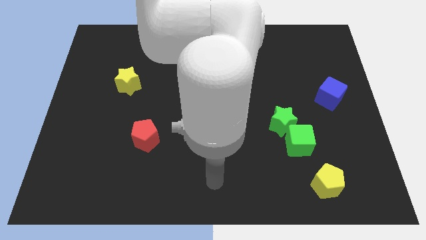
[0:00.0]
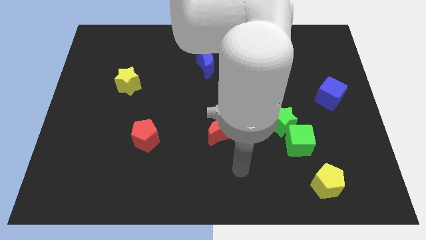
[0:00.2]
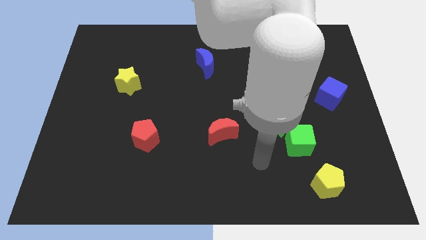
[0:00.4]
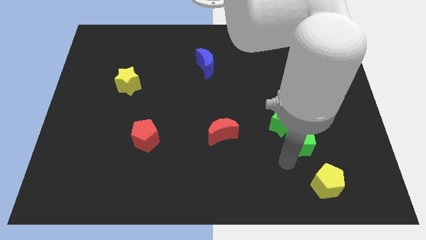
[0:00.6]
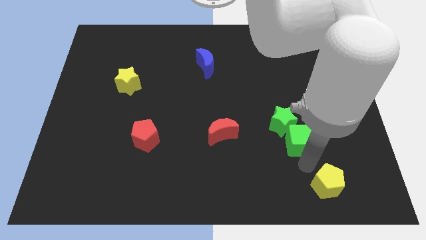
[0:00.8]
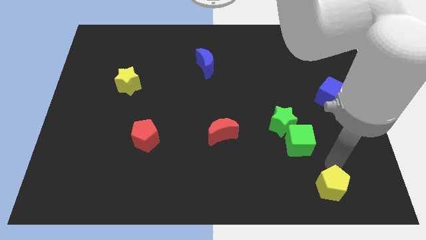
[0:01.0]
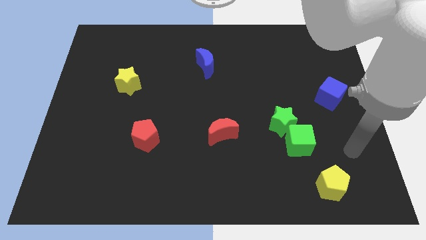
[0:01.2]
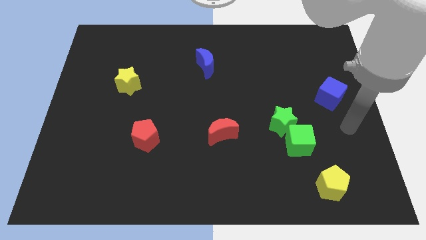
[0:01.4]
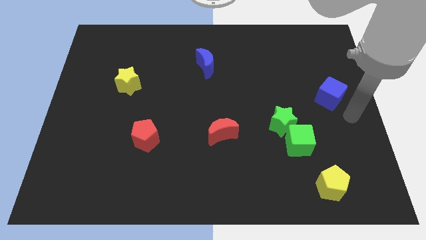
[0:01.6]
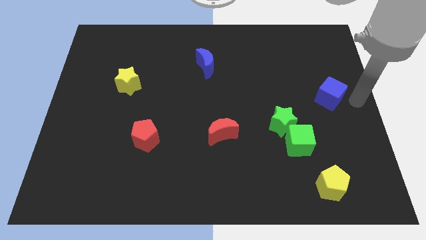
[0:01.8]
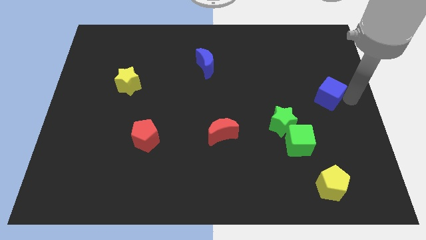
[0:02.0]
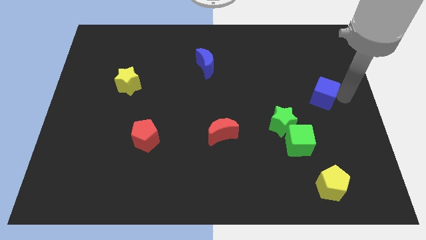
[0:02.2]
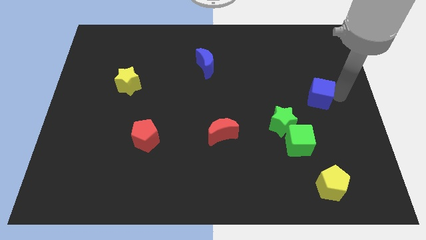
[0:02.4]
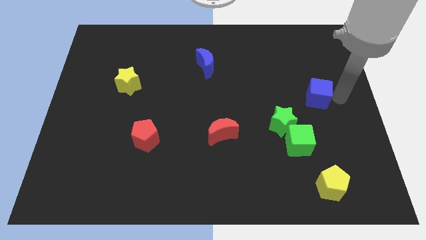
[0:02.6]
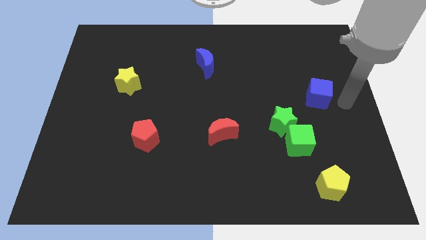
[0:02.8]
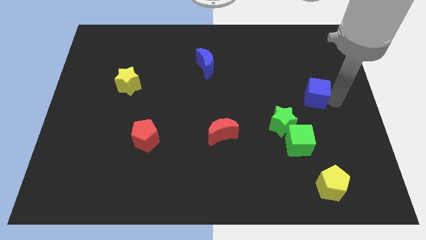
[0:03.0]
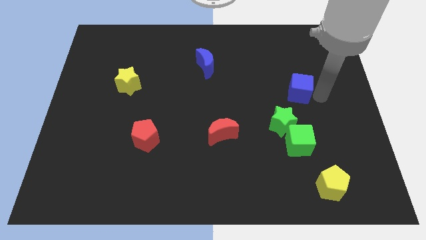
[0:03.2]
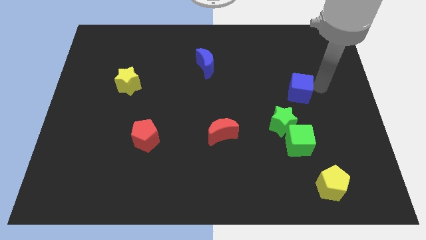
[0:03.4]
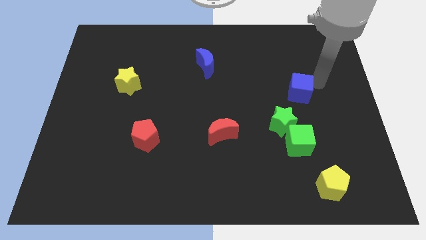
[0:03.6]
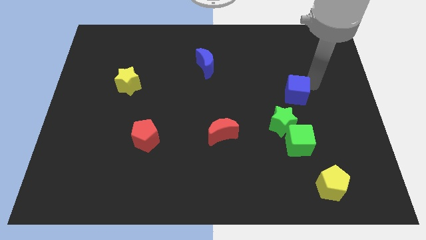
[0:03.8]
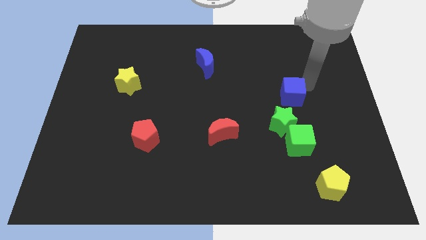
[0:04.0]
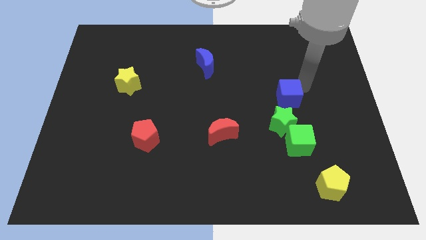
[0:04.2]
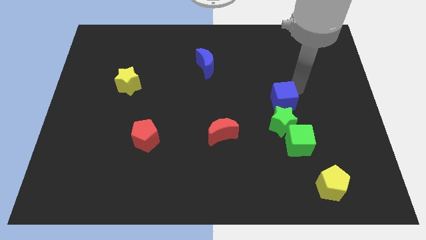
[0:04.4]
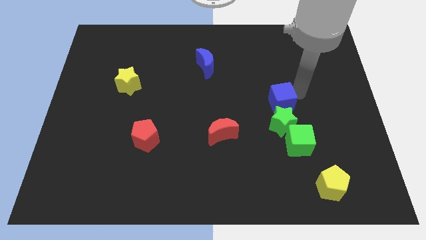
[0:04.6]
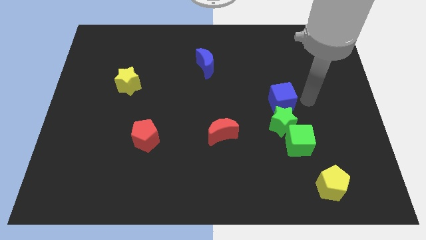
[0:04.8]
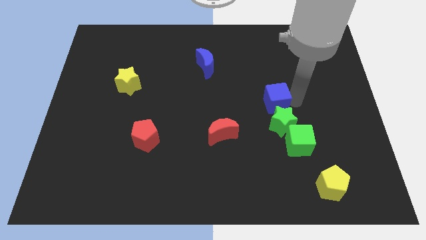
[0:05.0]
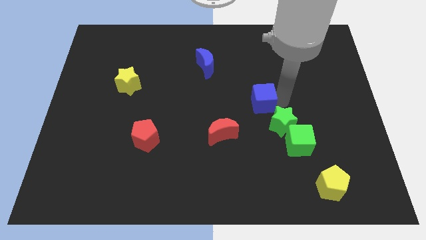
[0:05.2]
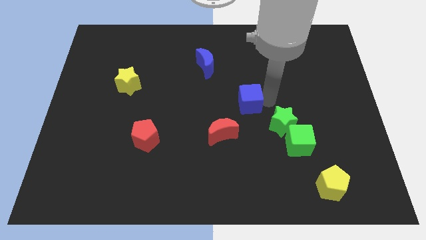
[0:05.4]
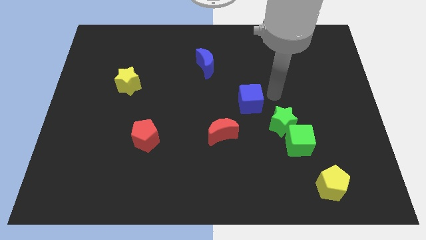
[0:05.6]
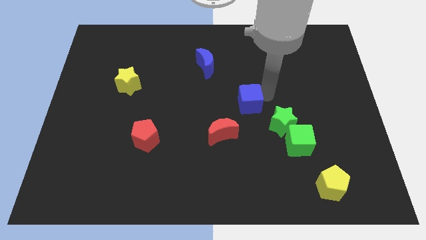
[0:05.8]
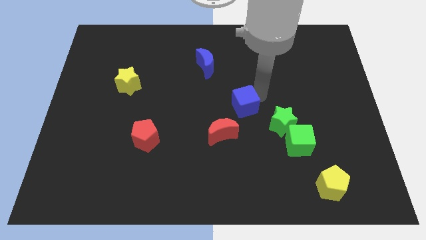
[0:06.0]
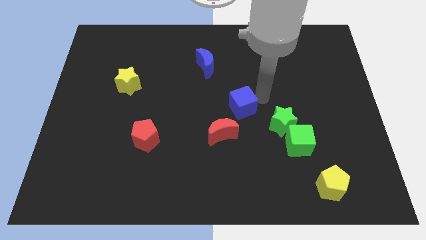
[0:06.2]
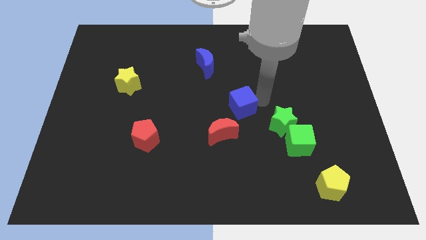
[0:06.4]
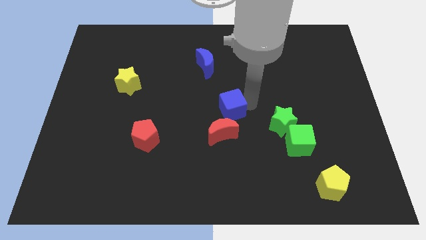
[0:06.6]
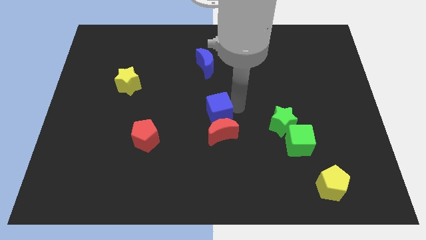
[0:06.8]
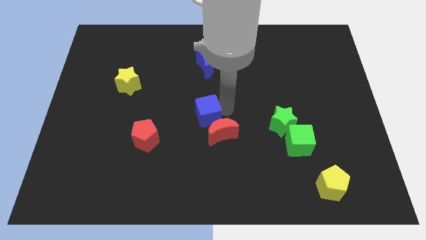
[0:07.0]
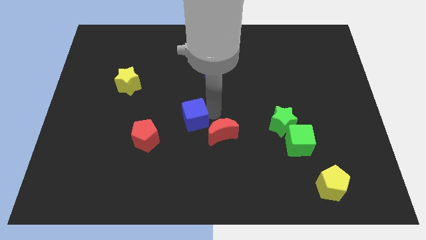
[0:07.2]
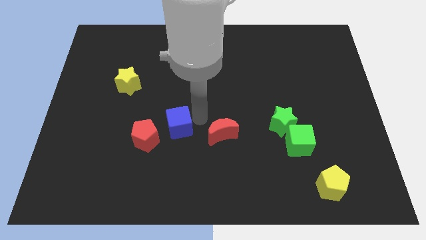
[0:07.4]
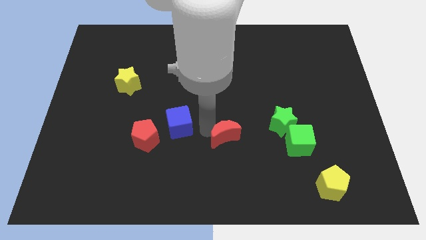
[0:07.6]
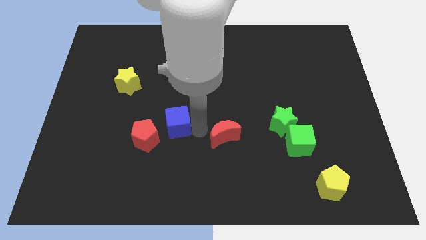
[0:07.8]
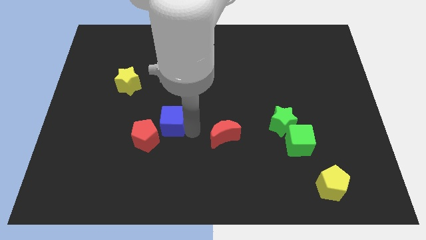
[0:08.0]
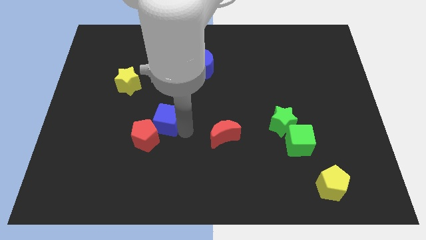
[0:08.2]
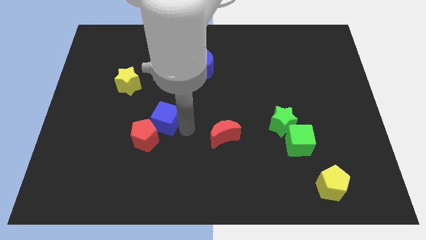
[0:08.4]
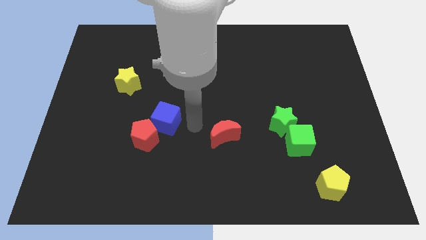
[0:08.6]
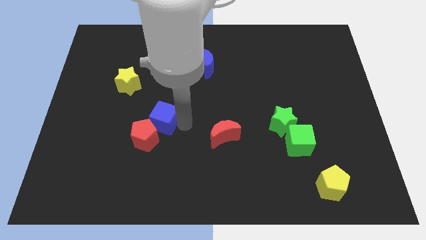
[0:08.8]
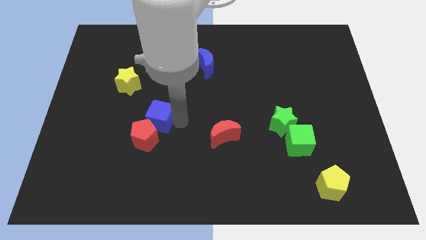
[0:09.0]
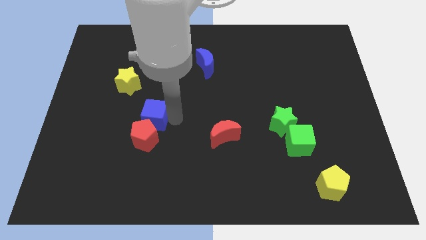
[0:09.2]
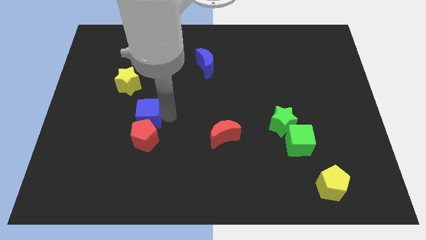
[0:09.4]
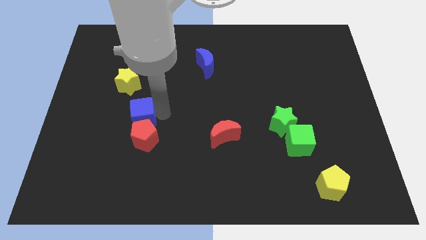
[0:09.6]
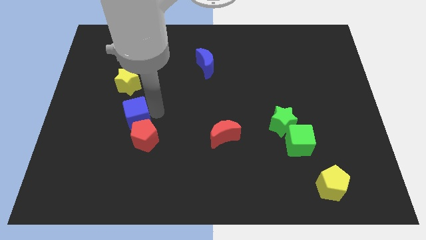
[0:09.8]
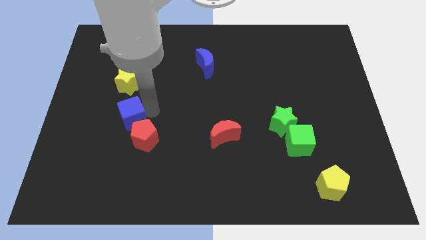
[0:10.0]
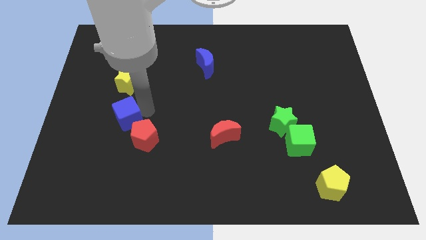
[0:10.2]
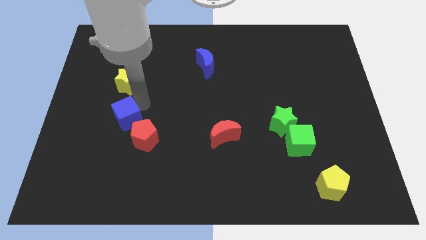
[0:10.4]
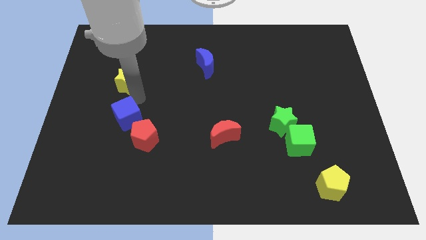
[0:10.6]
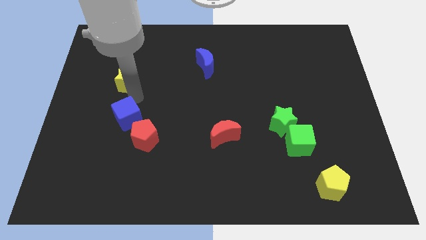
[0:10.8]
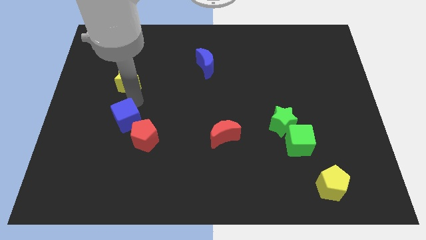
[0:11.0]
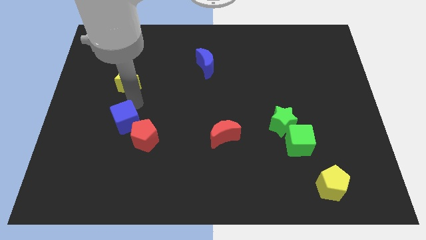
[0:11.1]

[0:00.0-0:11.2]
move the blue cube to the left side of the red pentagon

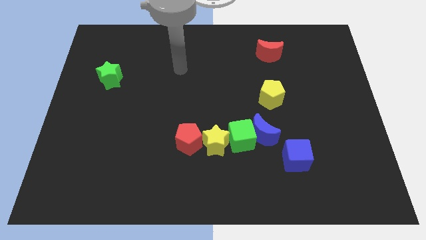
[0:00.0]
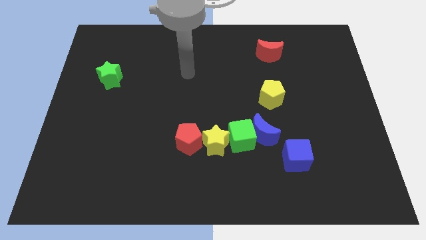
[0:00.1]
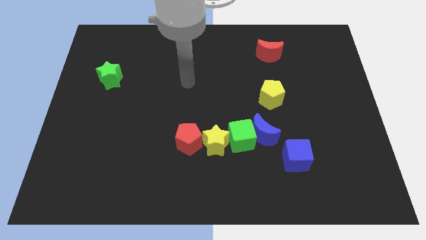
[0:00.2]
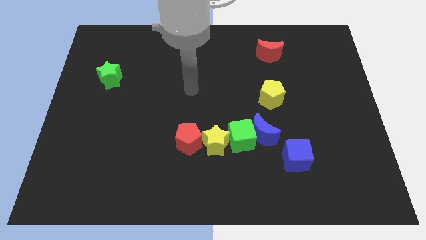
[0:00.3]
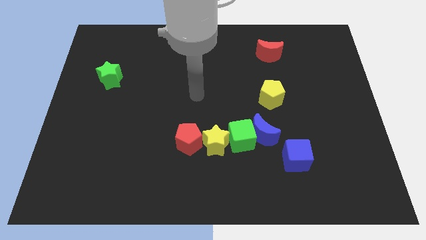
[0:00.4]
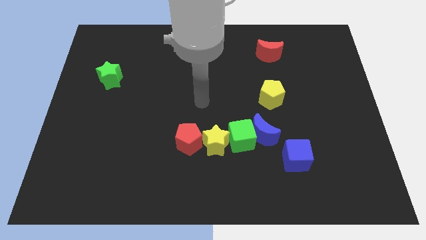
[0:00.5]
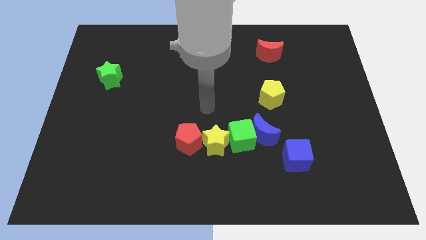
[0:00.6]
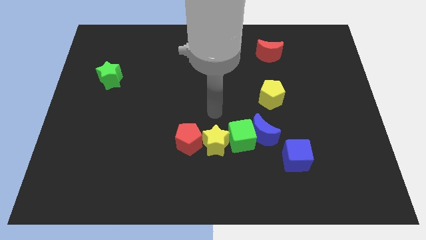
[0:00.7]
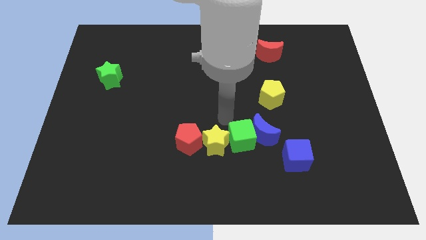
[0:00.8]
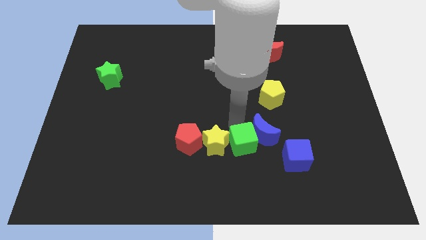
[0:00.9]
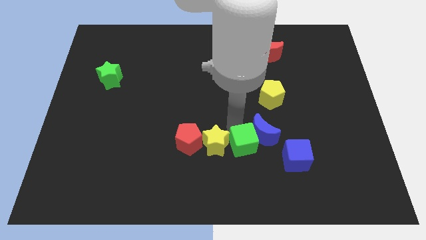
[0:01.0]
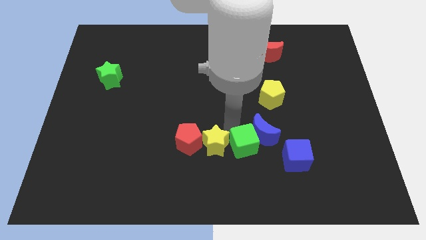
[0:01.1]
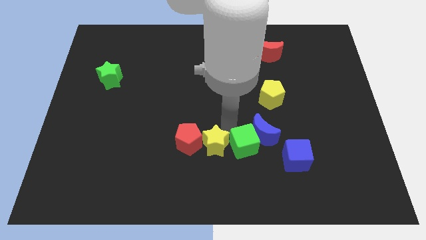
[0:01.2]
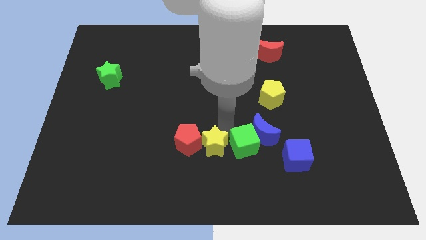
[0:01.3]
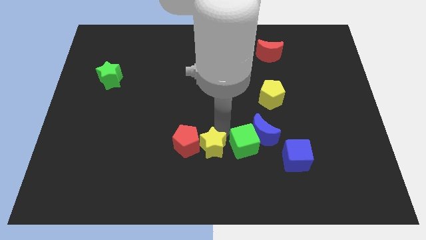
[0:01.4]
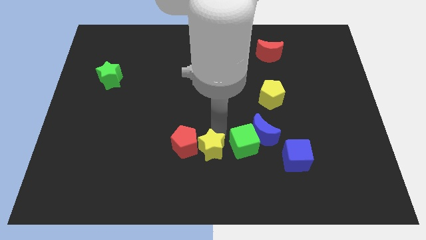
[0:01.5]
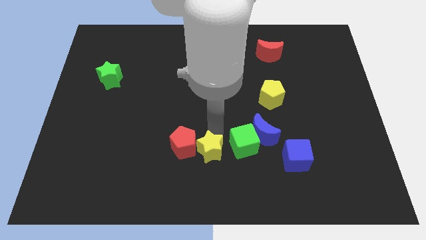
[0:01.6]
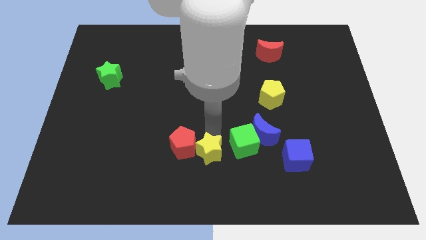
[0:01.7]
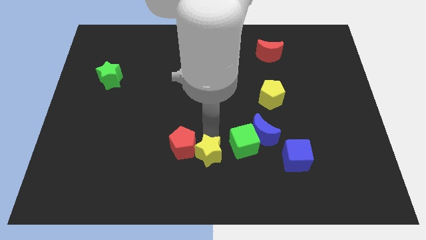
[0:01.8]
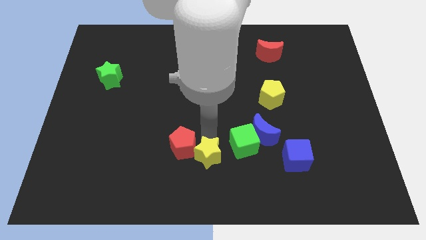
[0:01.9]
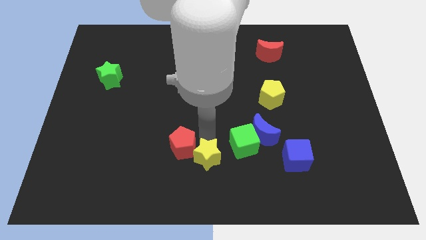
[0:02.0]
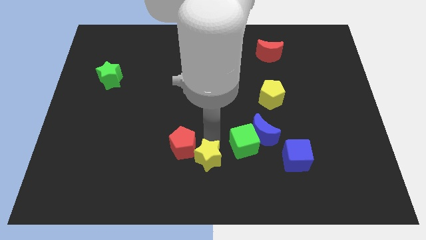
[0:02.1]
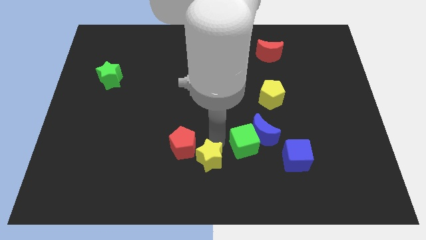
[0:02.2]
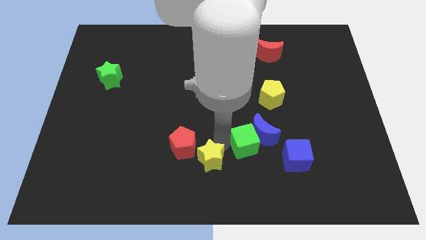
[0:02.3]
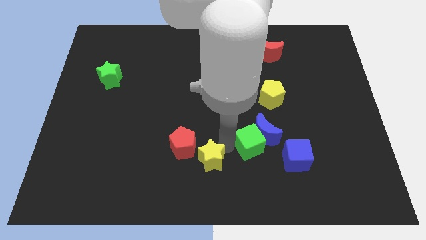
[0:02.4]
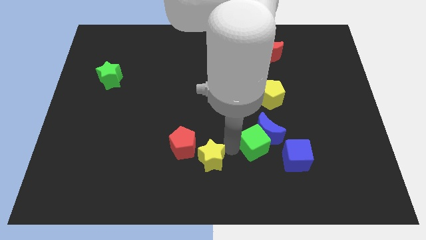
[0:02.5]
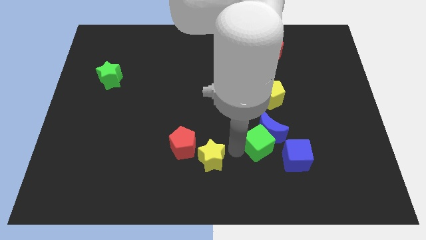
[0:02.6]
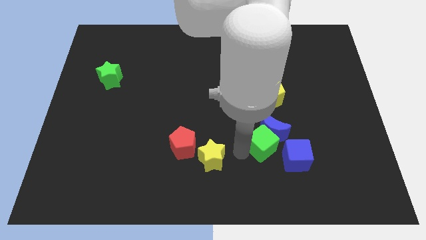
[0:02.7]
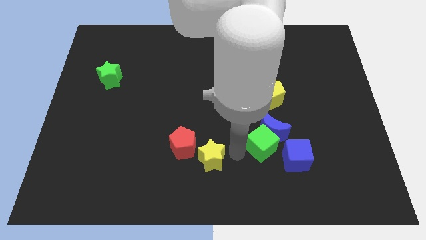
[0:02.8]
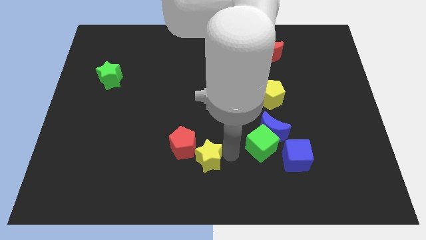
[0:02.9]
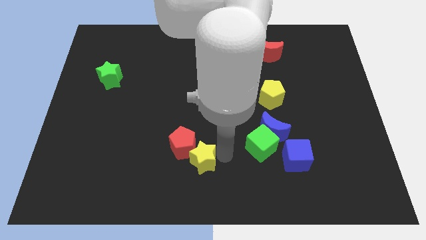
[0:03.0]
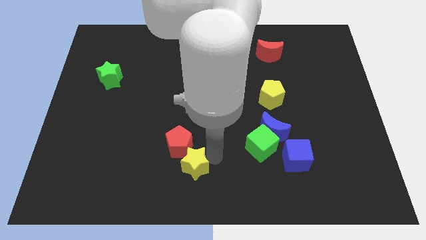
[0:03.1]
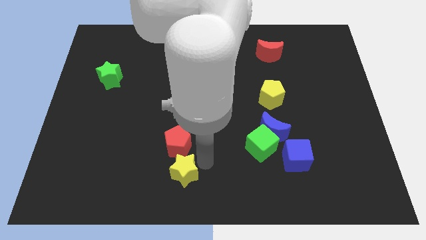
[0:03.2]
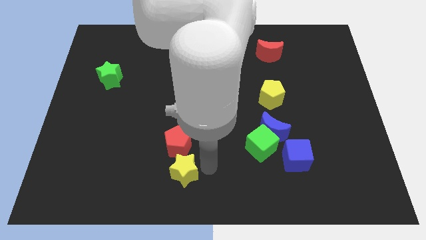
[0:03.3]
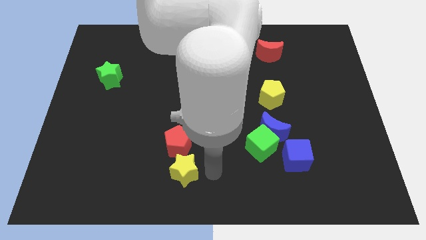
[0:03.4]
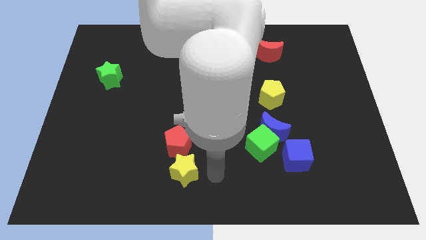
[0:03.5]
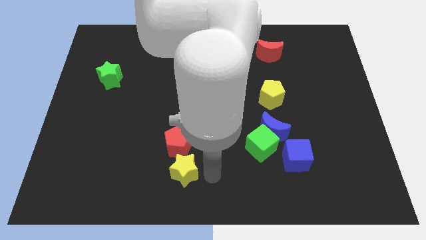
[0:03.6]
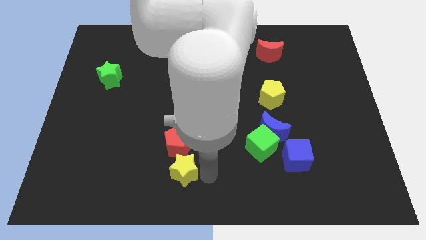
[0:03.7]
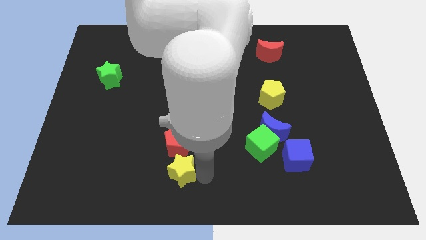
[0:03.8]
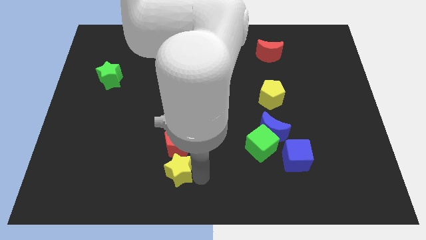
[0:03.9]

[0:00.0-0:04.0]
put the yellow star diagonally down and to the left of the red pentagon
